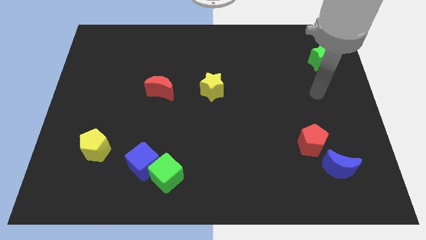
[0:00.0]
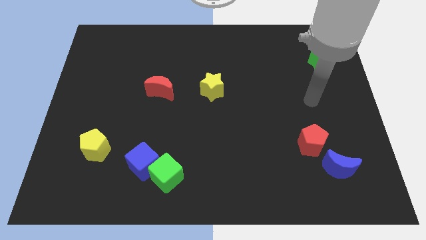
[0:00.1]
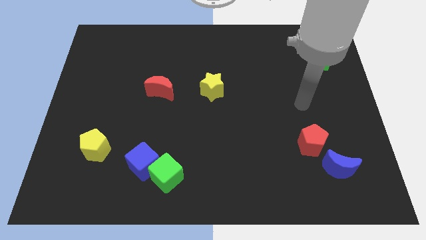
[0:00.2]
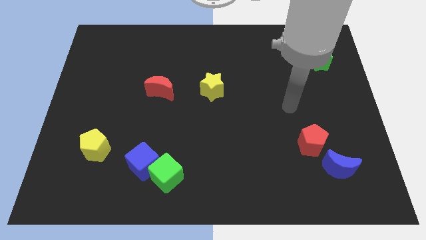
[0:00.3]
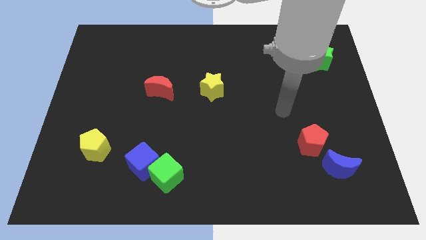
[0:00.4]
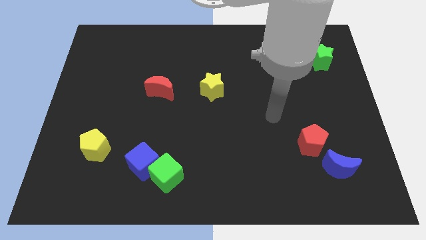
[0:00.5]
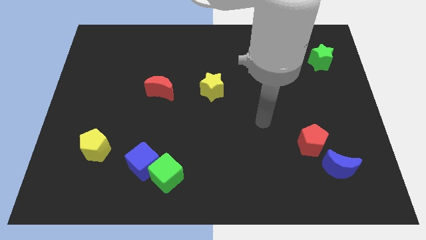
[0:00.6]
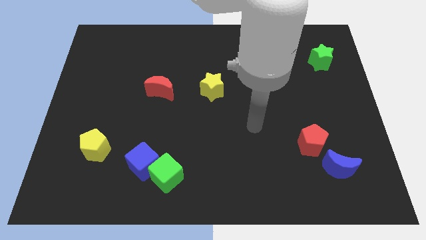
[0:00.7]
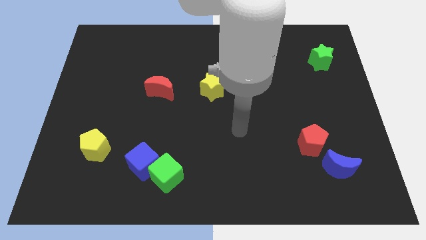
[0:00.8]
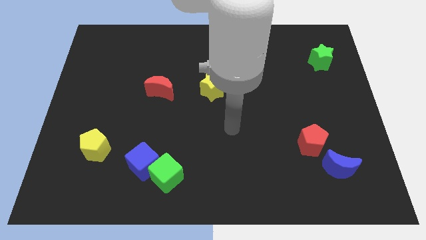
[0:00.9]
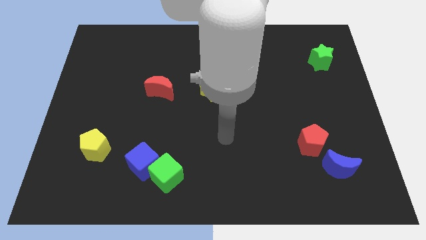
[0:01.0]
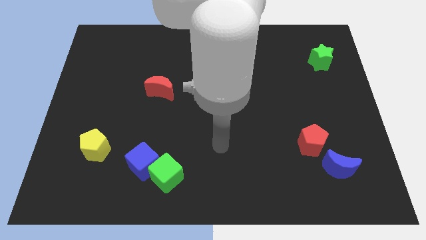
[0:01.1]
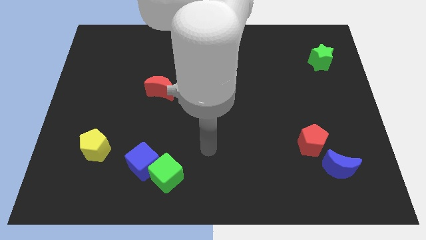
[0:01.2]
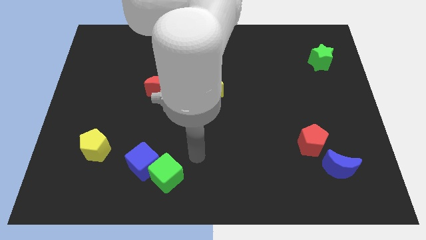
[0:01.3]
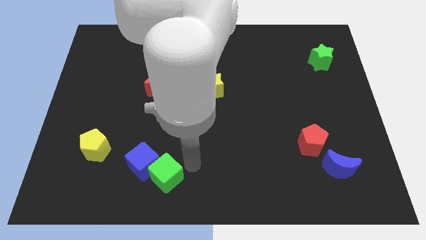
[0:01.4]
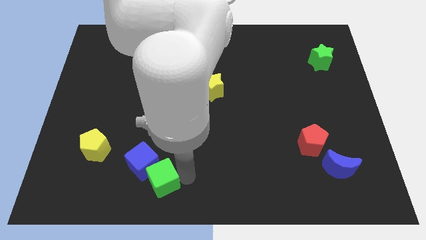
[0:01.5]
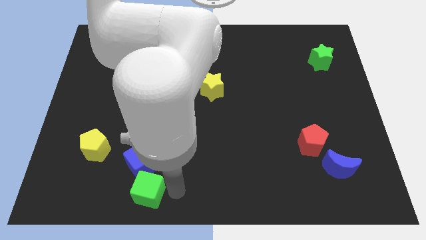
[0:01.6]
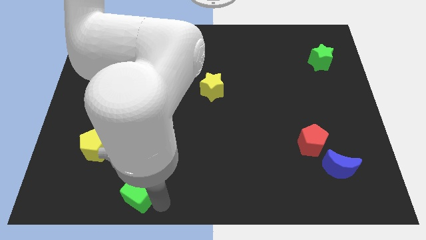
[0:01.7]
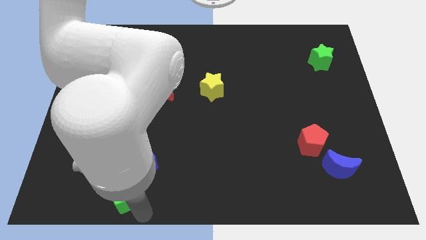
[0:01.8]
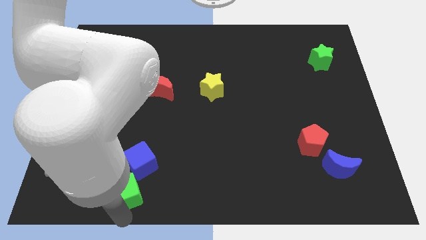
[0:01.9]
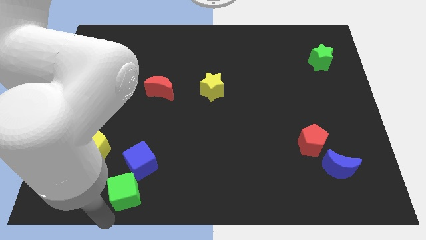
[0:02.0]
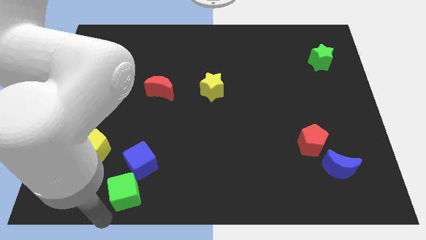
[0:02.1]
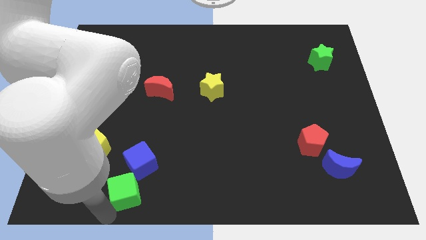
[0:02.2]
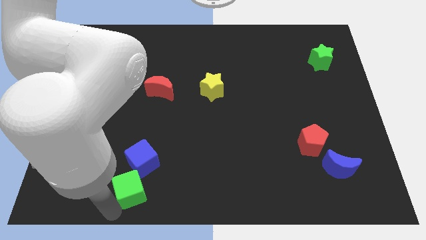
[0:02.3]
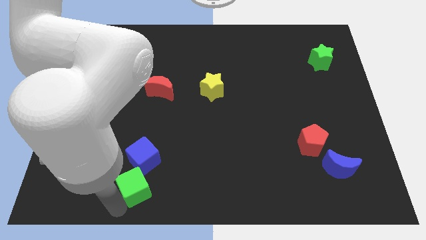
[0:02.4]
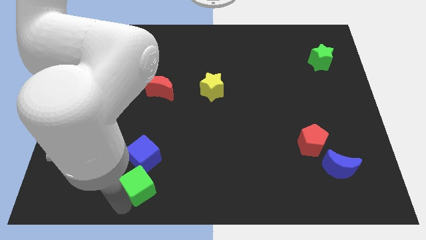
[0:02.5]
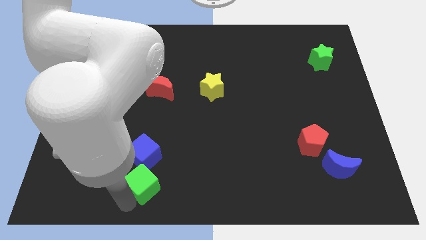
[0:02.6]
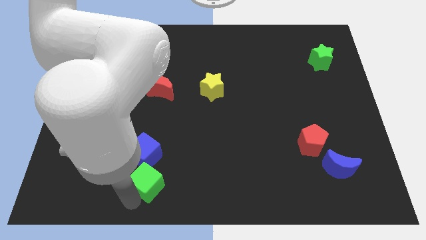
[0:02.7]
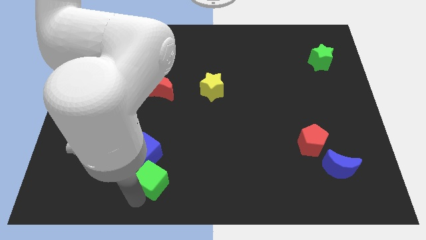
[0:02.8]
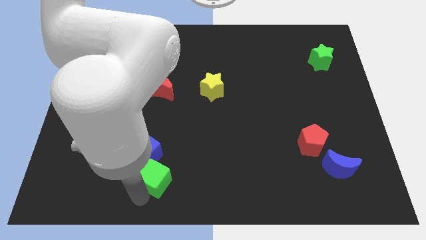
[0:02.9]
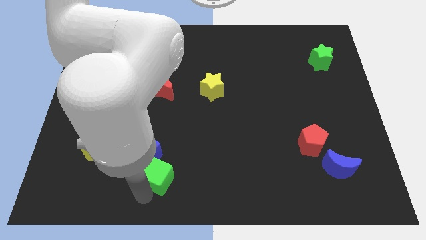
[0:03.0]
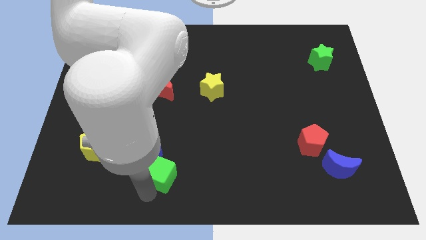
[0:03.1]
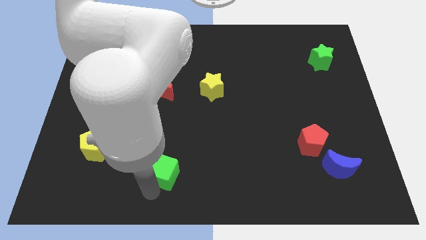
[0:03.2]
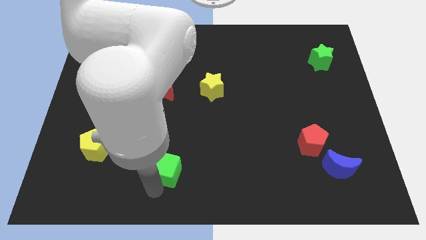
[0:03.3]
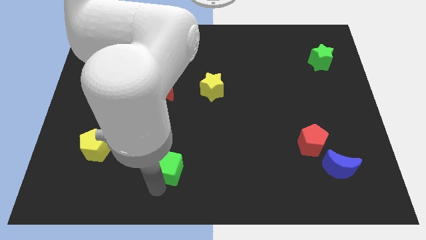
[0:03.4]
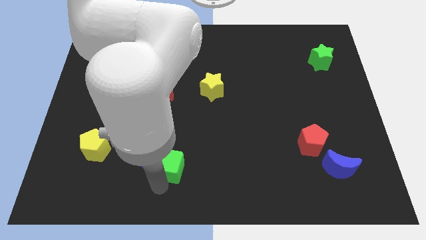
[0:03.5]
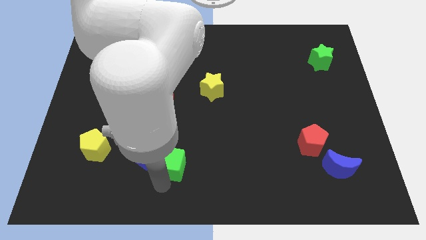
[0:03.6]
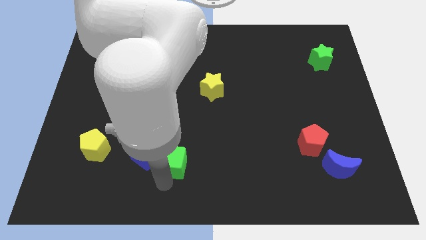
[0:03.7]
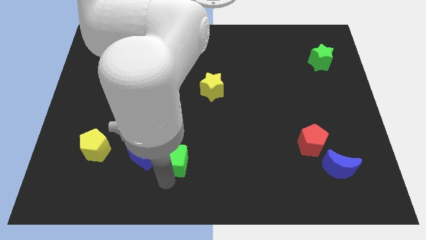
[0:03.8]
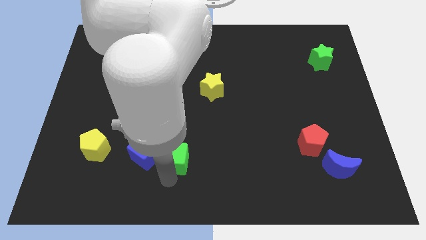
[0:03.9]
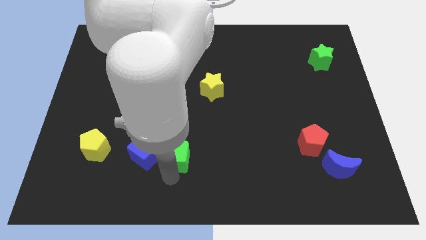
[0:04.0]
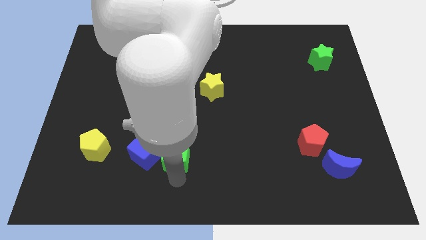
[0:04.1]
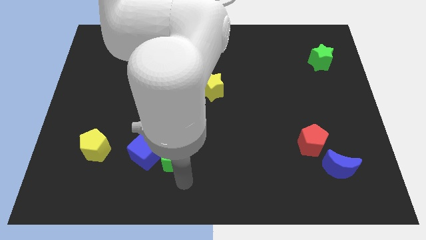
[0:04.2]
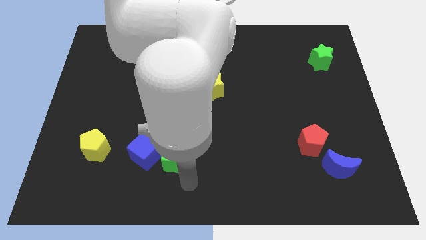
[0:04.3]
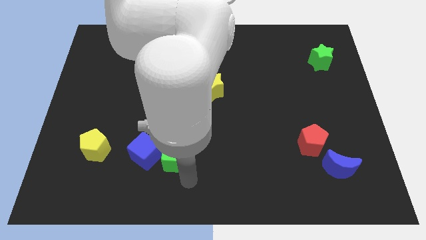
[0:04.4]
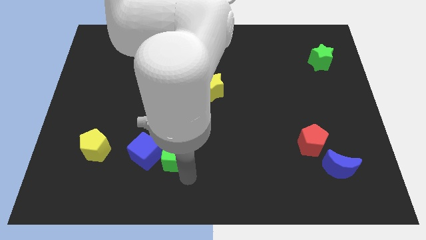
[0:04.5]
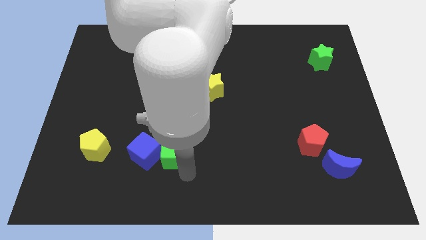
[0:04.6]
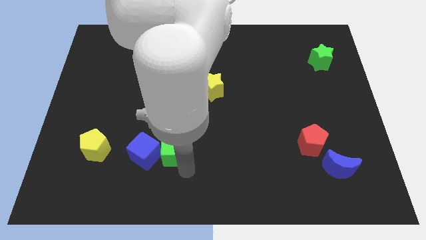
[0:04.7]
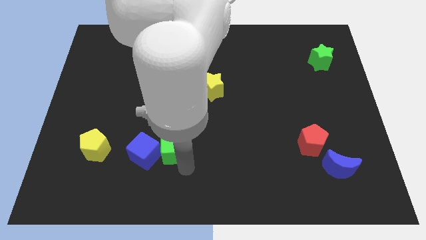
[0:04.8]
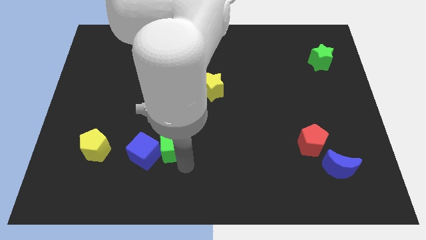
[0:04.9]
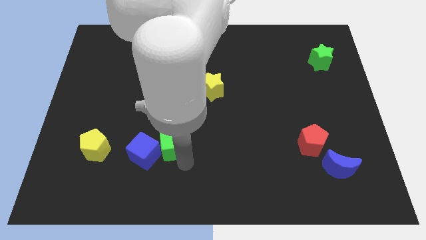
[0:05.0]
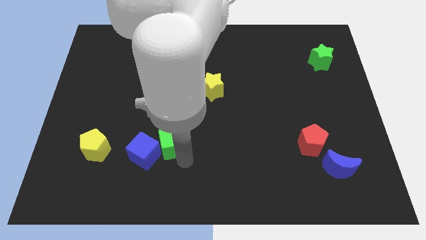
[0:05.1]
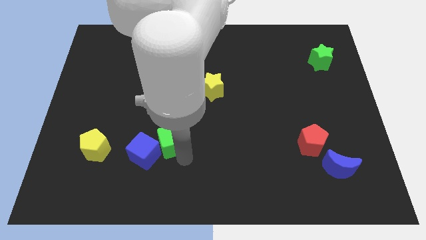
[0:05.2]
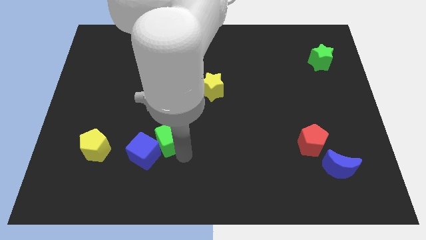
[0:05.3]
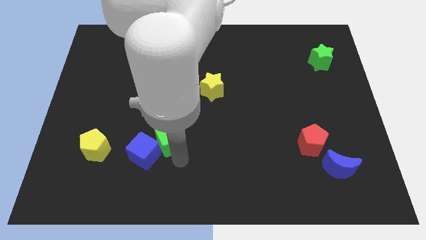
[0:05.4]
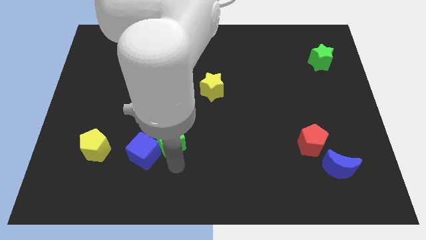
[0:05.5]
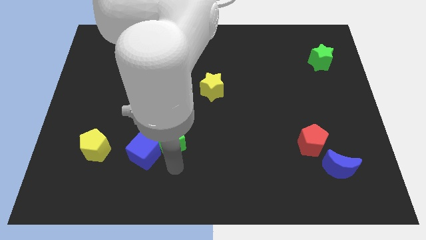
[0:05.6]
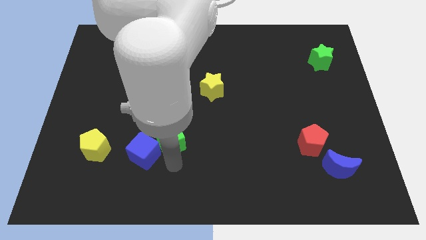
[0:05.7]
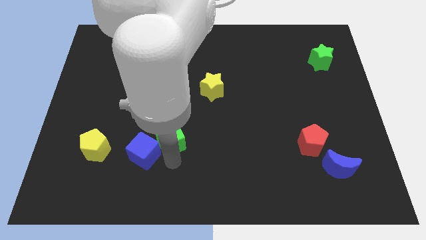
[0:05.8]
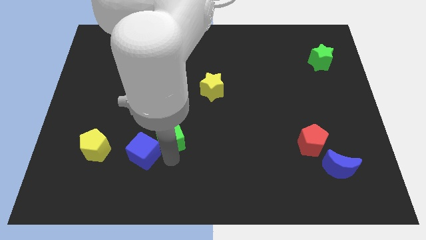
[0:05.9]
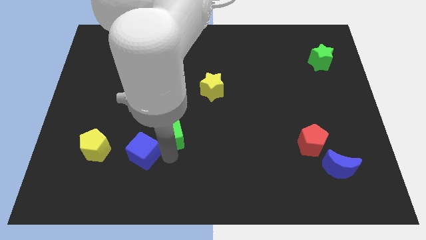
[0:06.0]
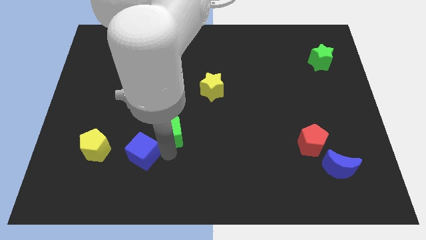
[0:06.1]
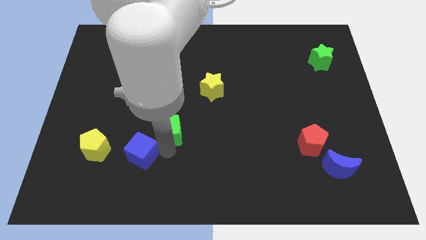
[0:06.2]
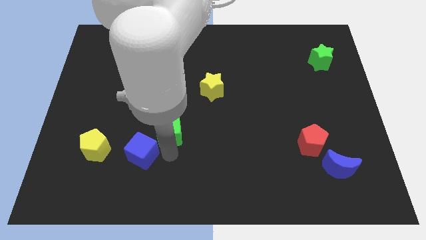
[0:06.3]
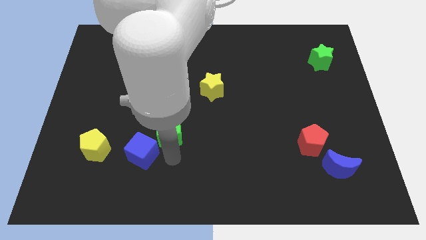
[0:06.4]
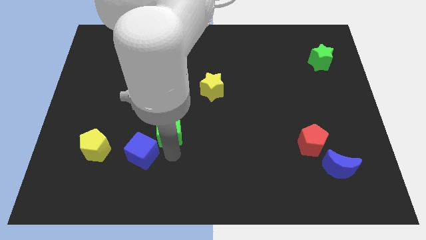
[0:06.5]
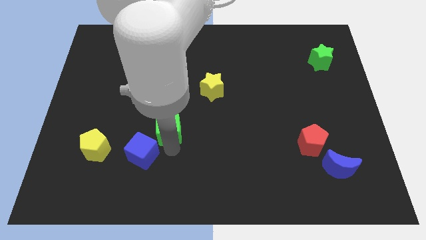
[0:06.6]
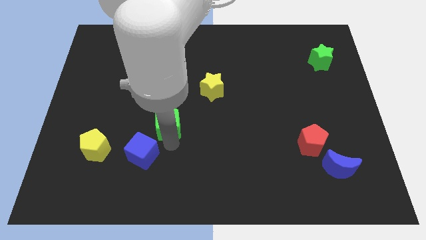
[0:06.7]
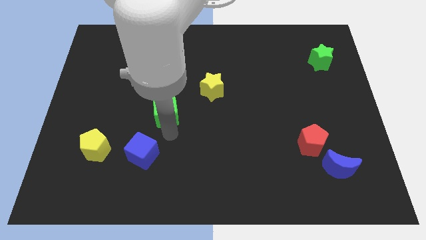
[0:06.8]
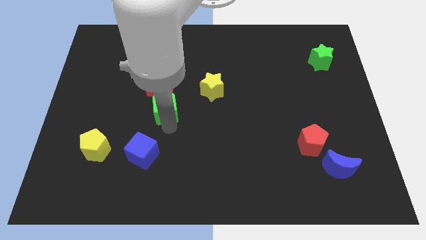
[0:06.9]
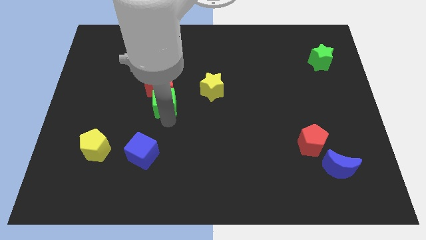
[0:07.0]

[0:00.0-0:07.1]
slide the green cube towards the red moon

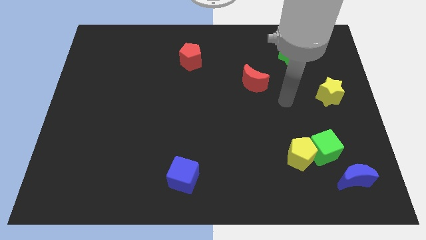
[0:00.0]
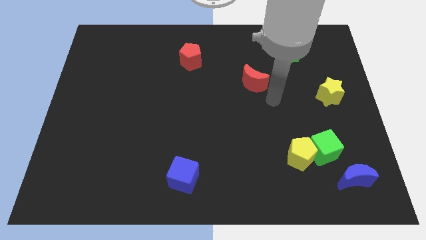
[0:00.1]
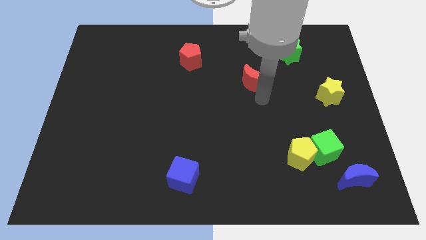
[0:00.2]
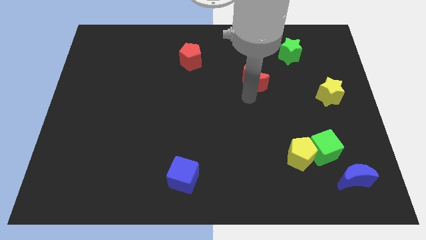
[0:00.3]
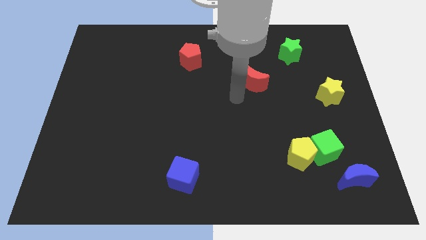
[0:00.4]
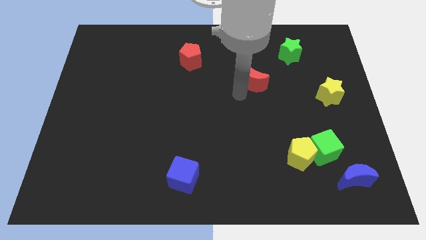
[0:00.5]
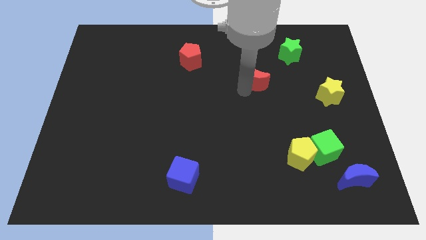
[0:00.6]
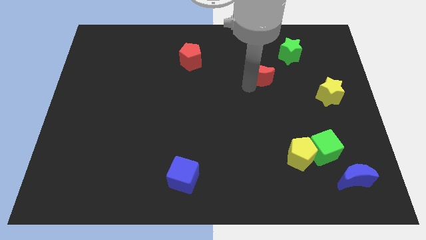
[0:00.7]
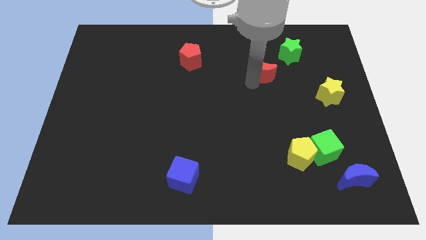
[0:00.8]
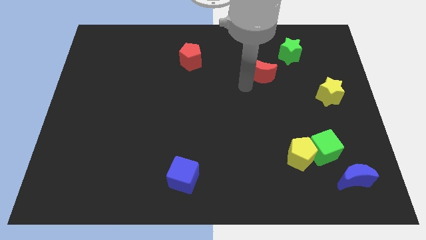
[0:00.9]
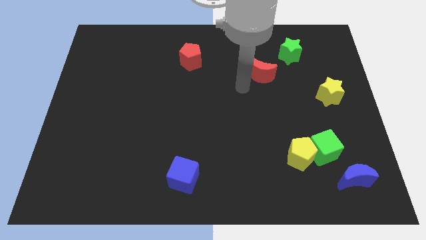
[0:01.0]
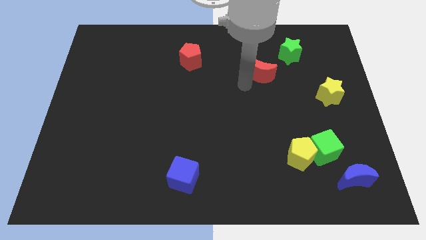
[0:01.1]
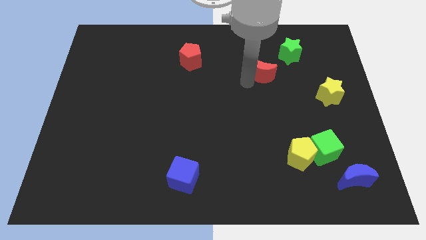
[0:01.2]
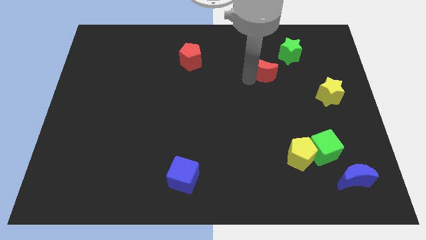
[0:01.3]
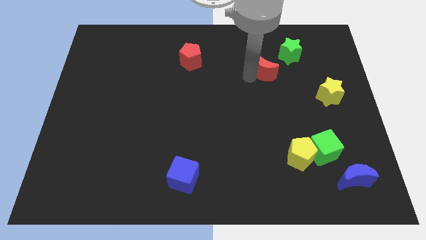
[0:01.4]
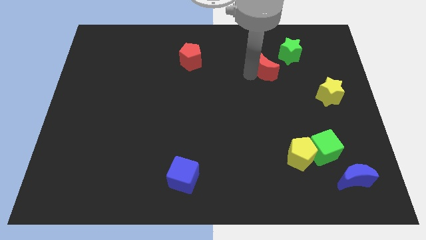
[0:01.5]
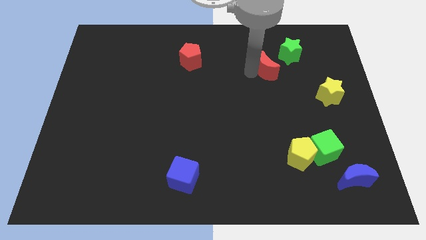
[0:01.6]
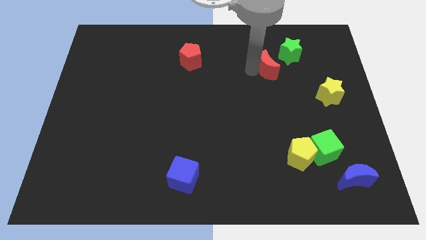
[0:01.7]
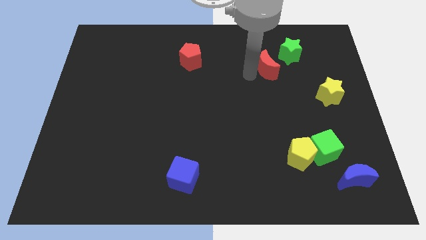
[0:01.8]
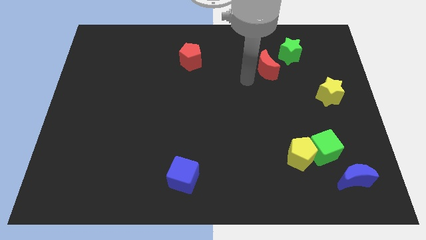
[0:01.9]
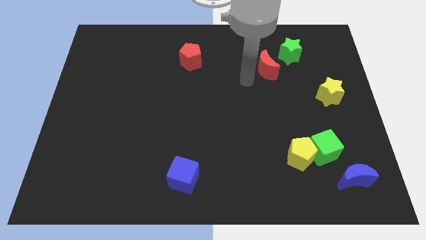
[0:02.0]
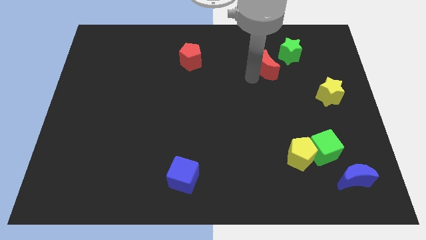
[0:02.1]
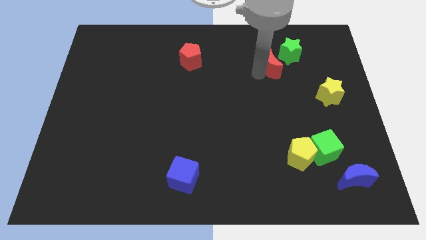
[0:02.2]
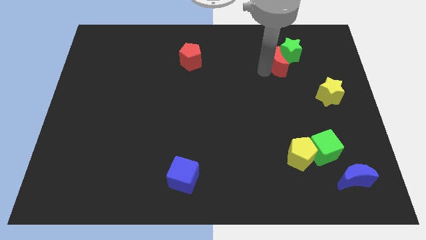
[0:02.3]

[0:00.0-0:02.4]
slide the red moon close to the green star
